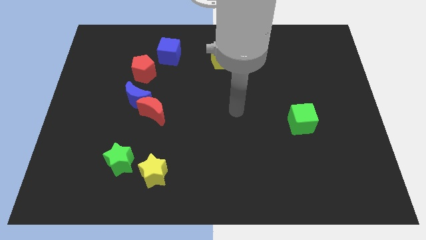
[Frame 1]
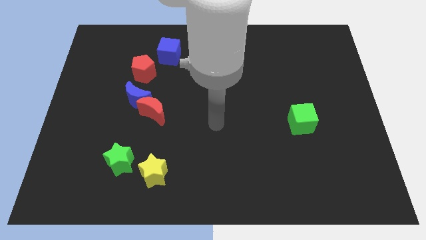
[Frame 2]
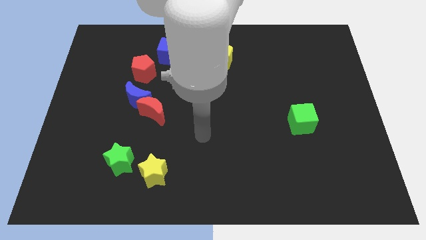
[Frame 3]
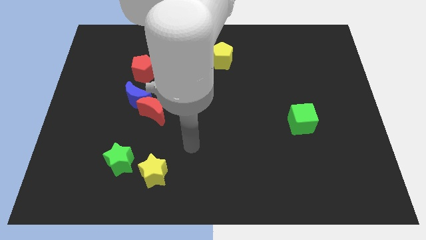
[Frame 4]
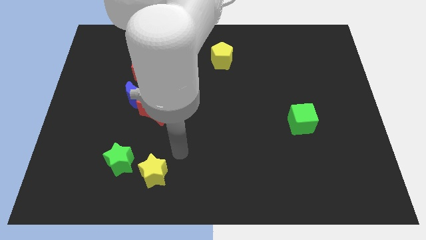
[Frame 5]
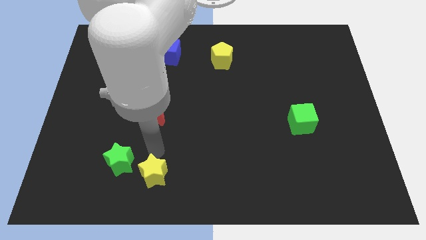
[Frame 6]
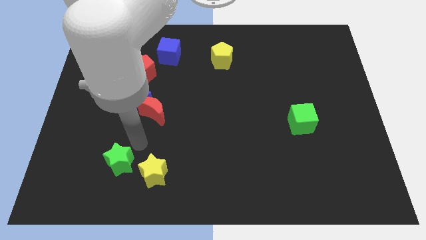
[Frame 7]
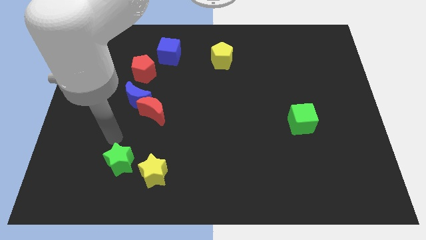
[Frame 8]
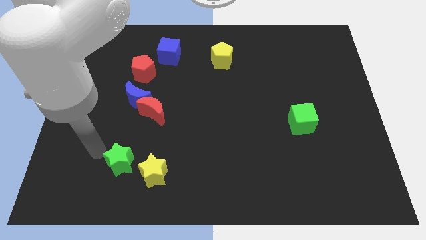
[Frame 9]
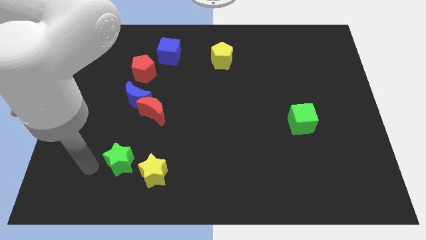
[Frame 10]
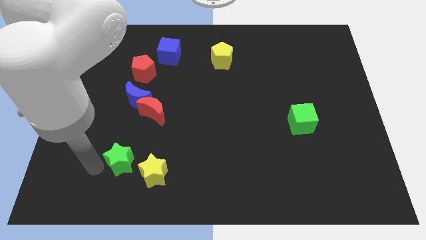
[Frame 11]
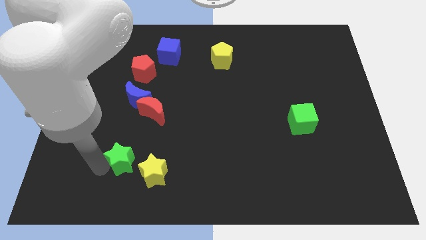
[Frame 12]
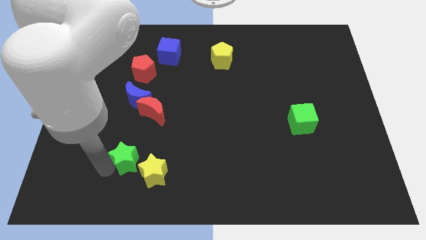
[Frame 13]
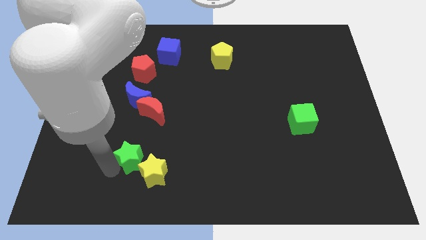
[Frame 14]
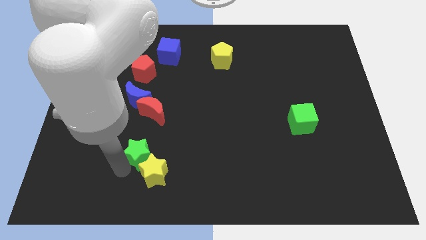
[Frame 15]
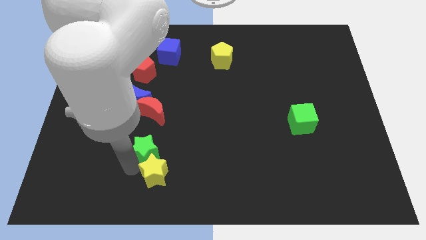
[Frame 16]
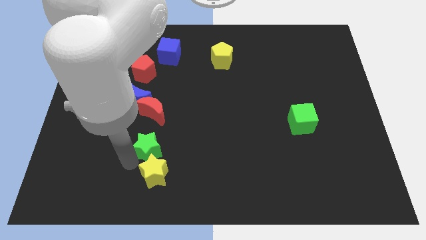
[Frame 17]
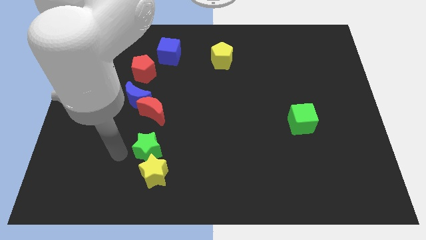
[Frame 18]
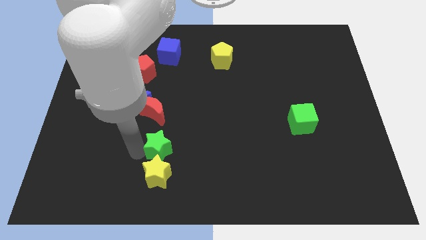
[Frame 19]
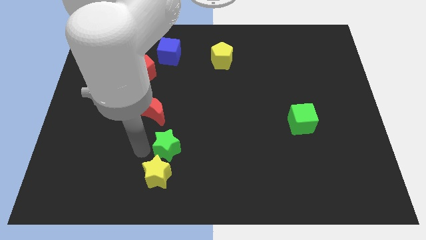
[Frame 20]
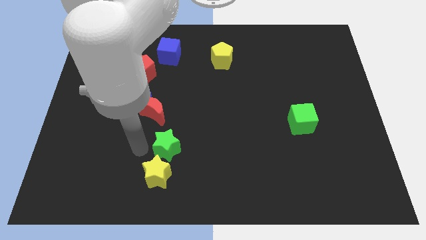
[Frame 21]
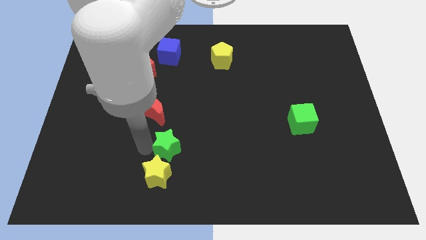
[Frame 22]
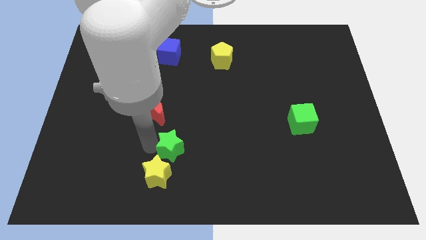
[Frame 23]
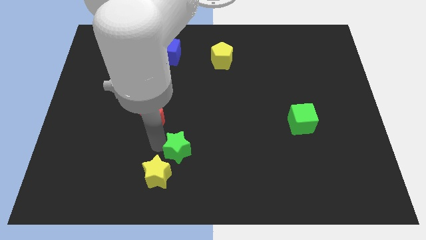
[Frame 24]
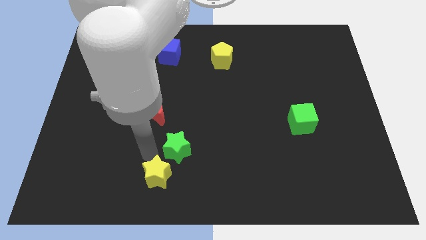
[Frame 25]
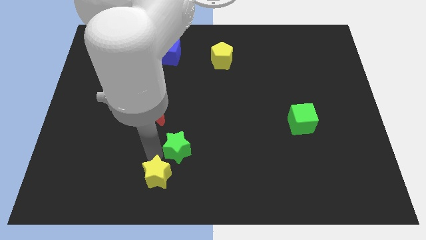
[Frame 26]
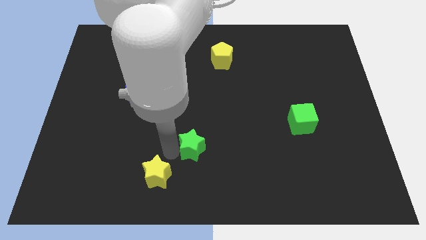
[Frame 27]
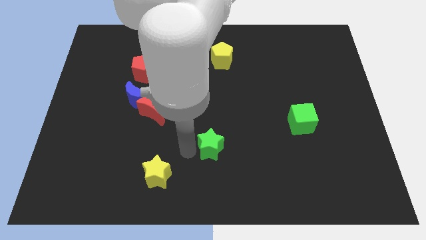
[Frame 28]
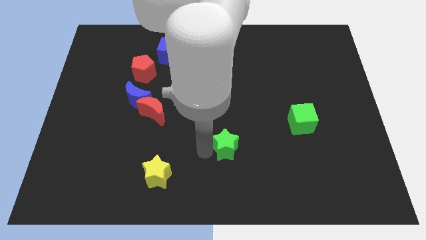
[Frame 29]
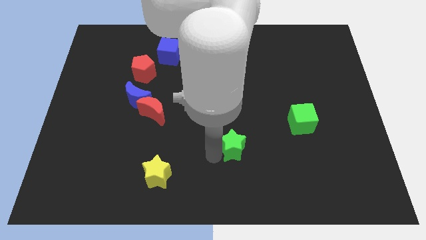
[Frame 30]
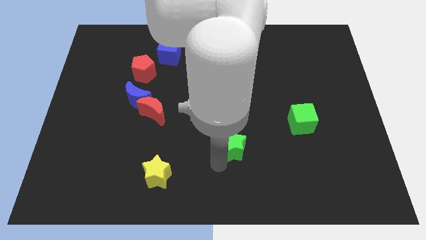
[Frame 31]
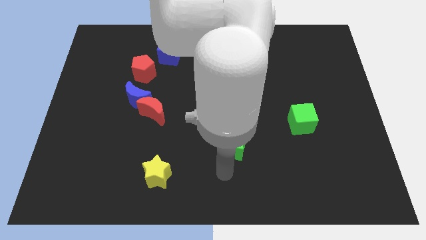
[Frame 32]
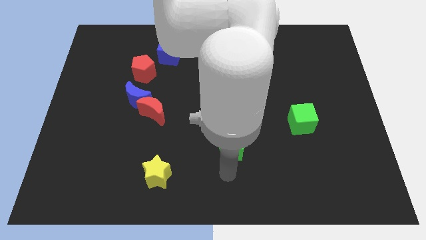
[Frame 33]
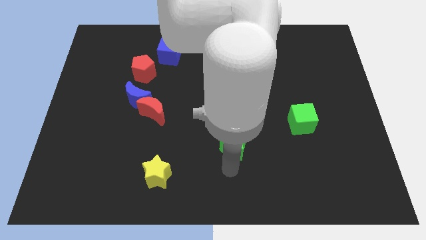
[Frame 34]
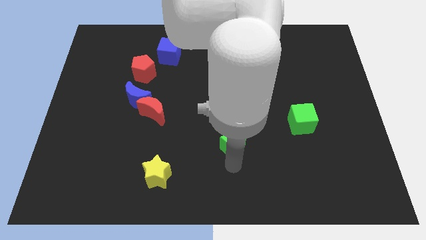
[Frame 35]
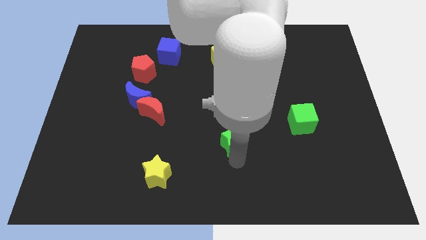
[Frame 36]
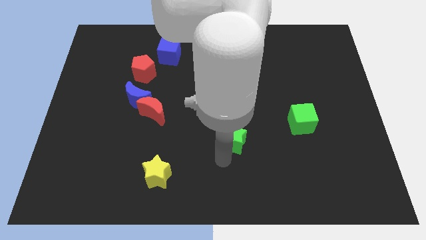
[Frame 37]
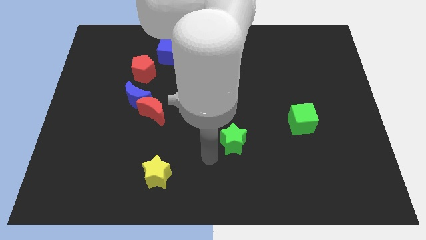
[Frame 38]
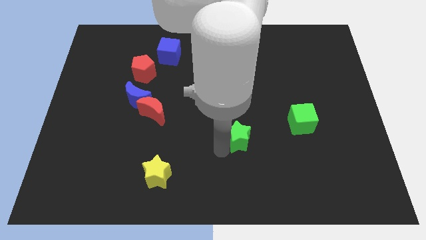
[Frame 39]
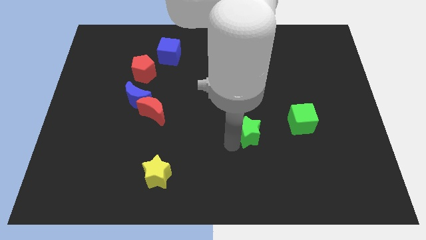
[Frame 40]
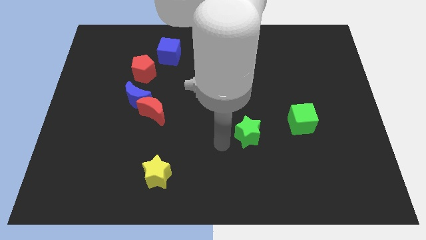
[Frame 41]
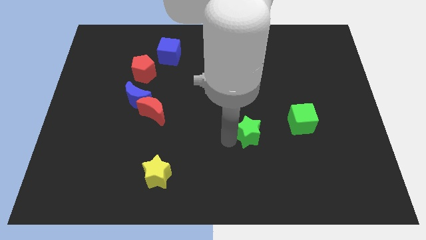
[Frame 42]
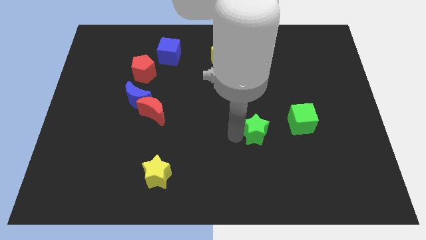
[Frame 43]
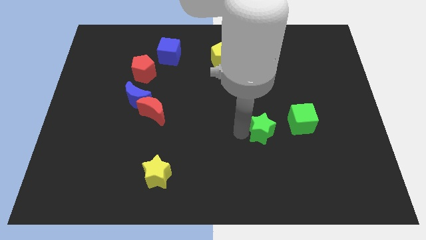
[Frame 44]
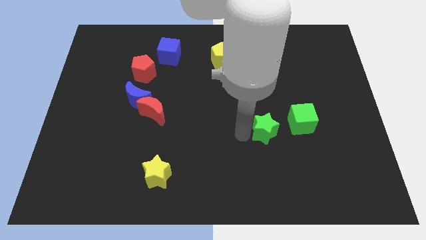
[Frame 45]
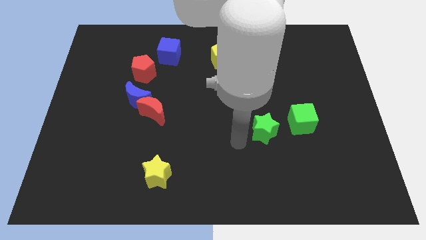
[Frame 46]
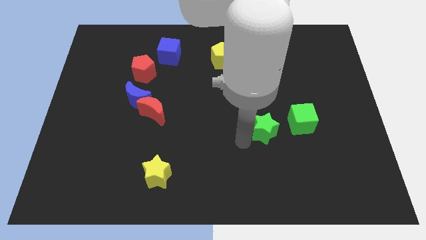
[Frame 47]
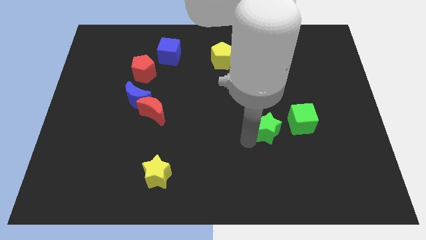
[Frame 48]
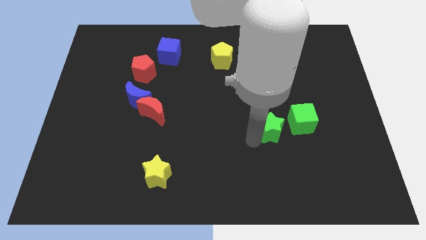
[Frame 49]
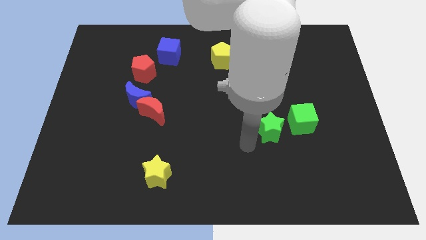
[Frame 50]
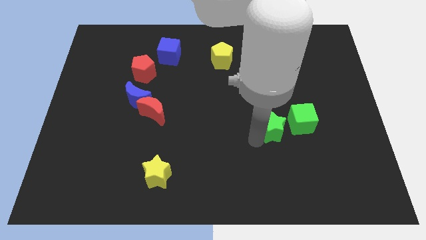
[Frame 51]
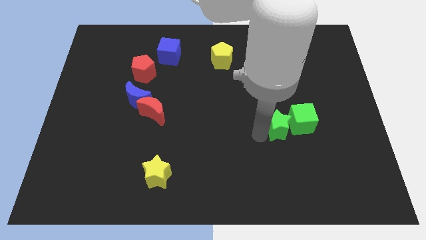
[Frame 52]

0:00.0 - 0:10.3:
put the green star close to the green cube

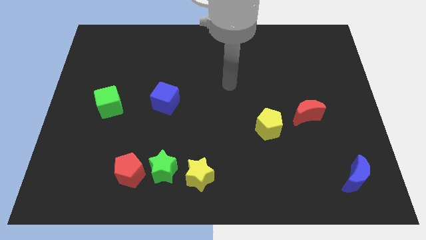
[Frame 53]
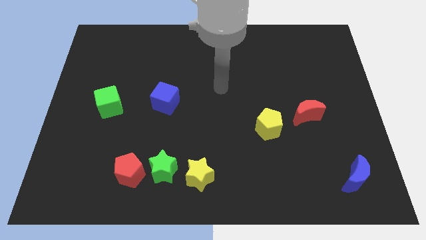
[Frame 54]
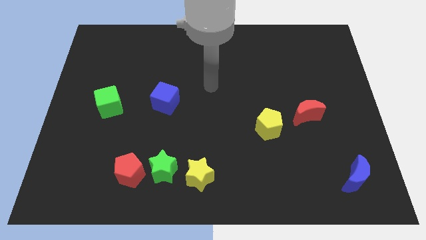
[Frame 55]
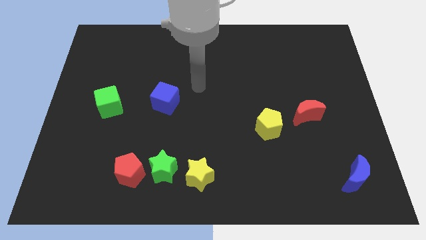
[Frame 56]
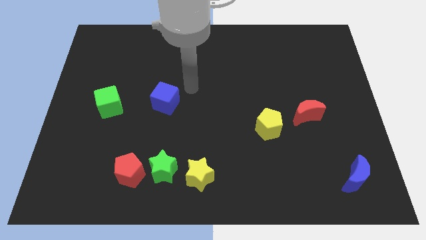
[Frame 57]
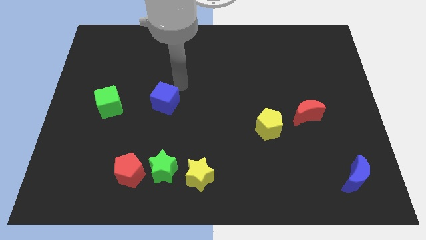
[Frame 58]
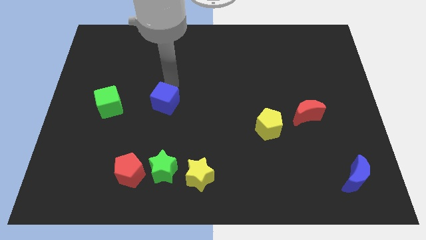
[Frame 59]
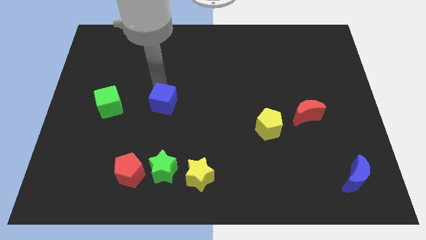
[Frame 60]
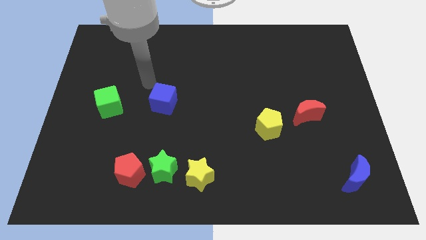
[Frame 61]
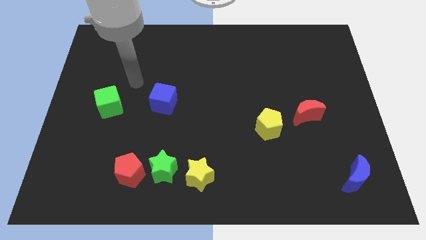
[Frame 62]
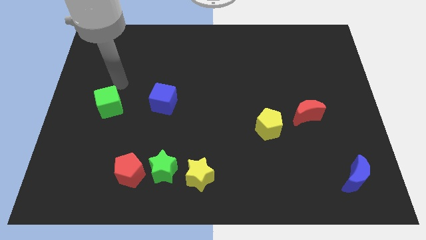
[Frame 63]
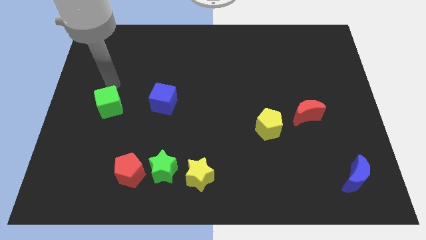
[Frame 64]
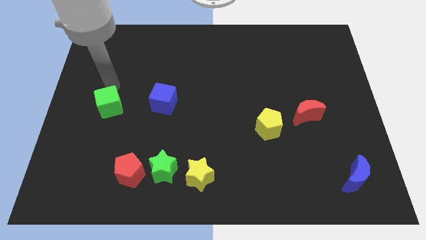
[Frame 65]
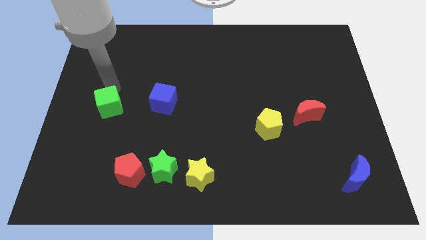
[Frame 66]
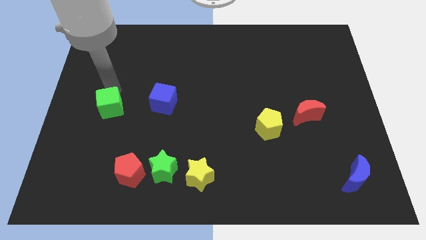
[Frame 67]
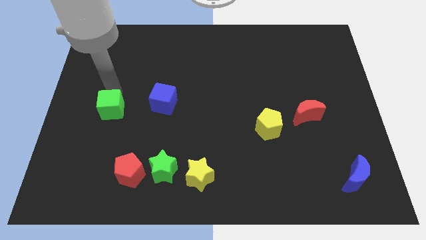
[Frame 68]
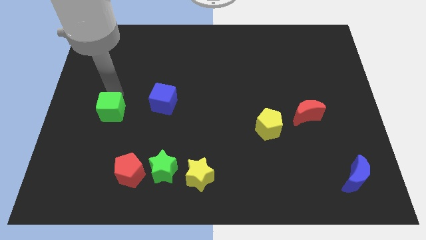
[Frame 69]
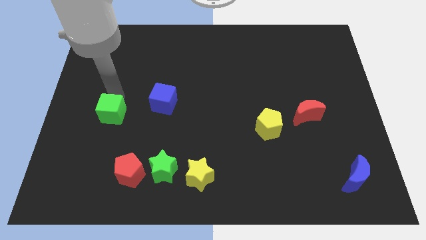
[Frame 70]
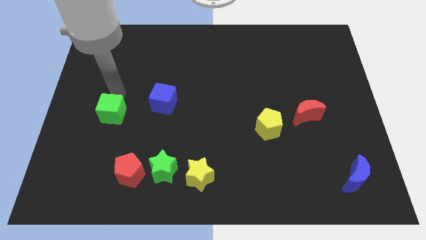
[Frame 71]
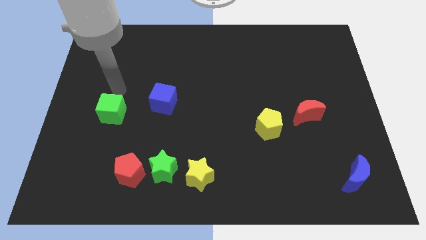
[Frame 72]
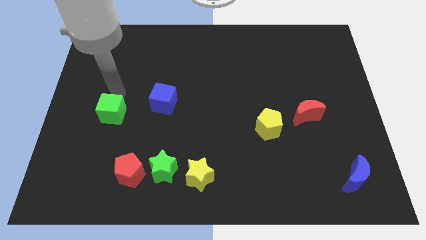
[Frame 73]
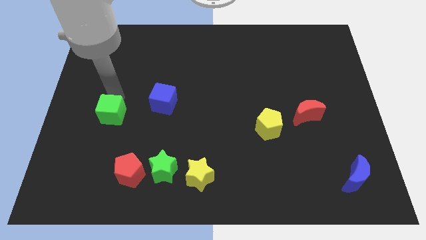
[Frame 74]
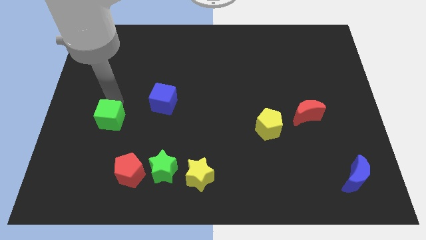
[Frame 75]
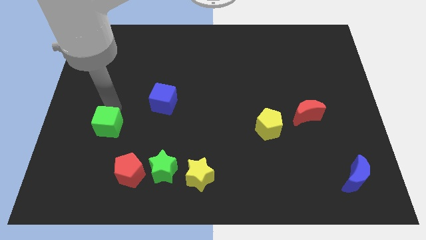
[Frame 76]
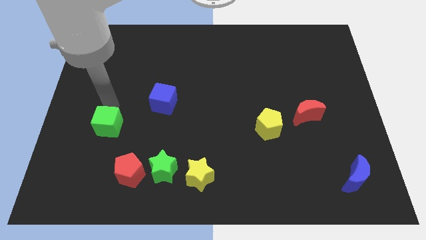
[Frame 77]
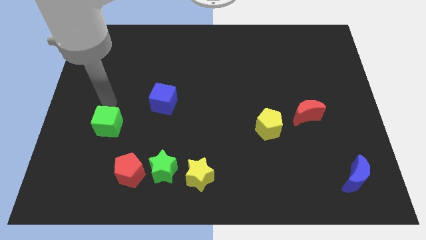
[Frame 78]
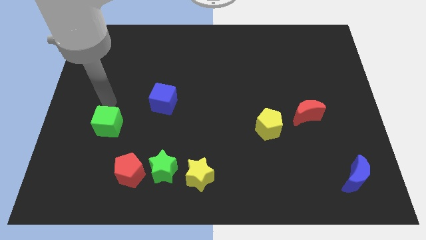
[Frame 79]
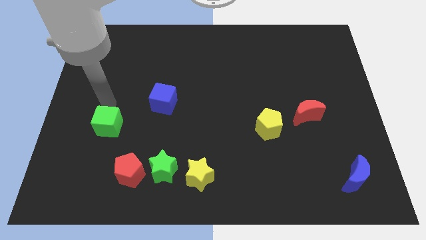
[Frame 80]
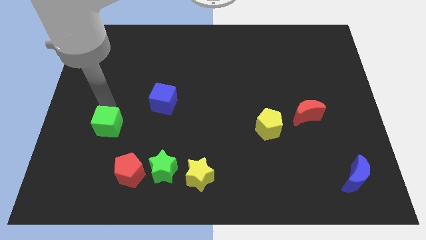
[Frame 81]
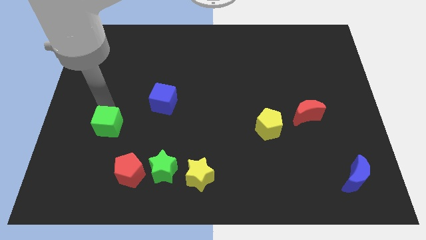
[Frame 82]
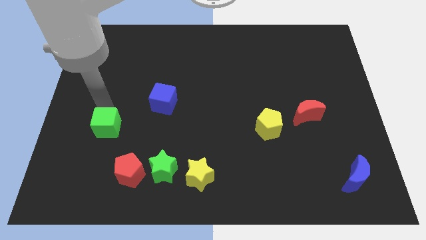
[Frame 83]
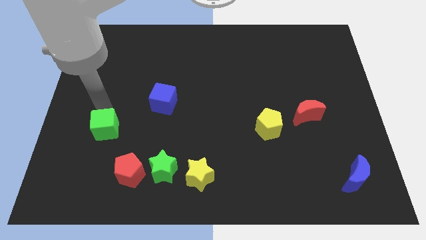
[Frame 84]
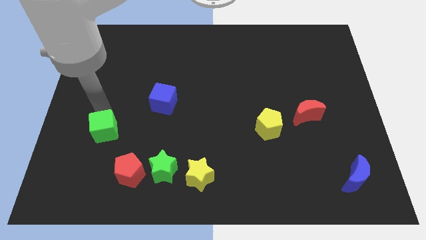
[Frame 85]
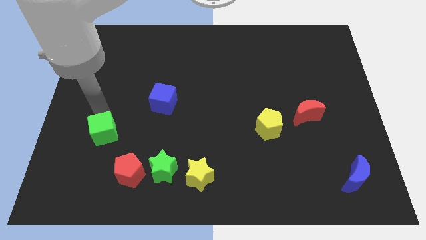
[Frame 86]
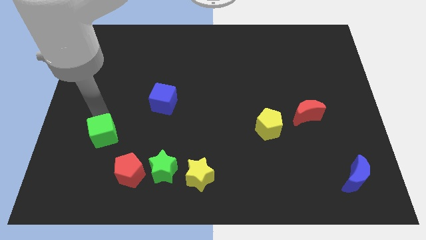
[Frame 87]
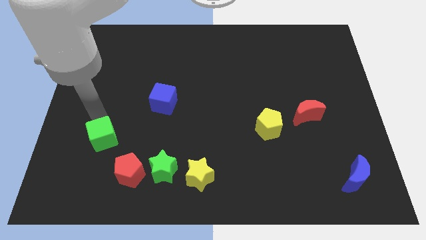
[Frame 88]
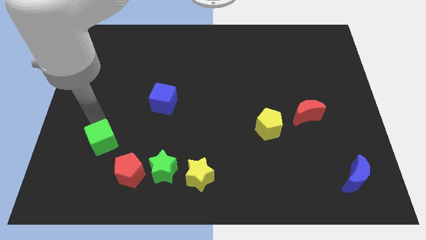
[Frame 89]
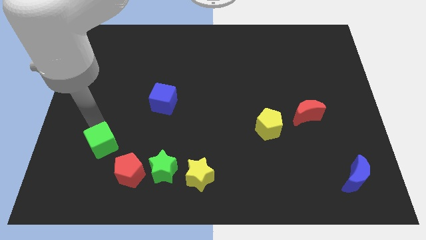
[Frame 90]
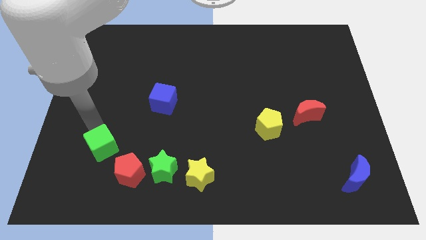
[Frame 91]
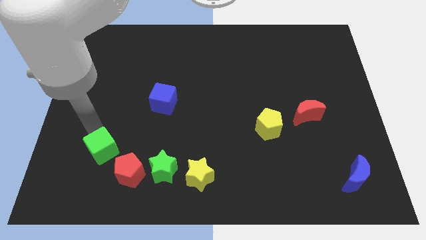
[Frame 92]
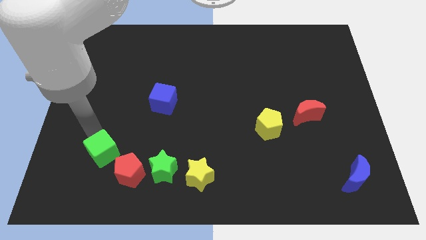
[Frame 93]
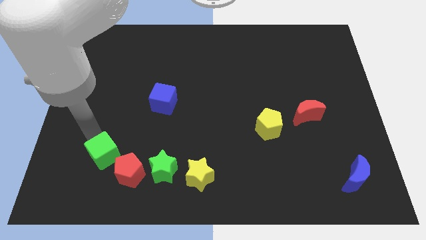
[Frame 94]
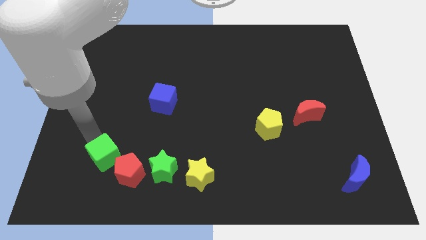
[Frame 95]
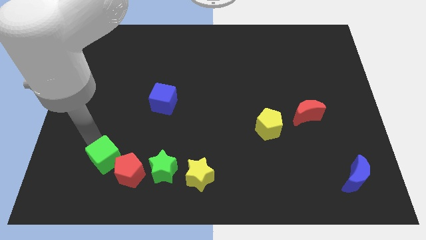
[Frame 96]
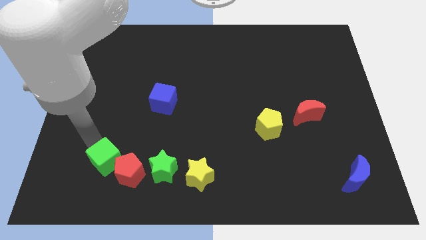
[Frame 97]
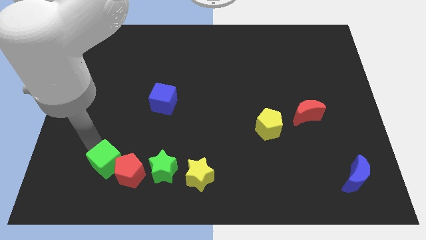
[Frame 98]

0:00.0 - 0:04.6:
put the green cube to the red pentagon
